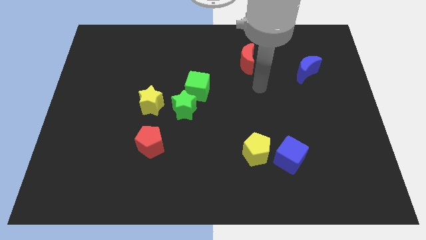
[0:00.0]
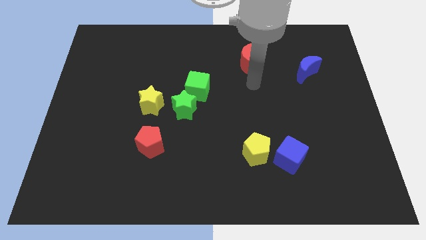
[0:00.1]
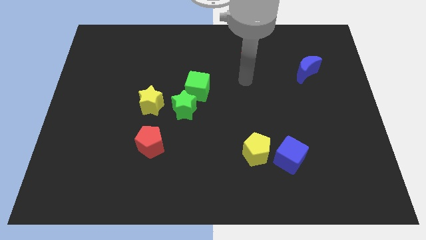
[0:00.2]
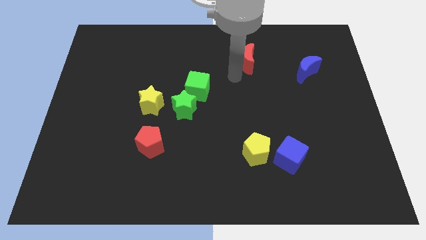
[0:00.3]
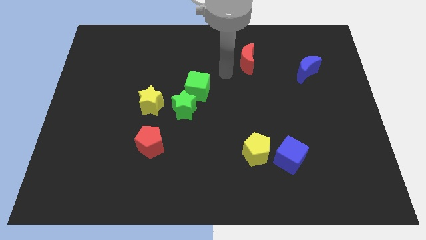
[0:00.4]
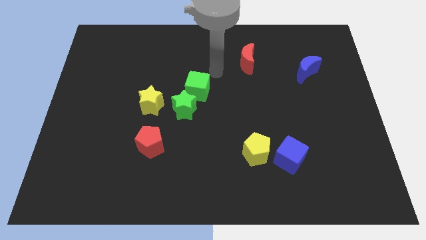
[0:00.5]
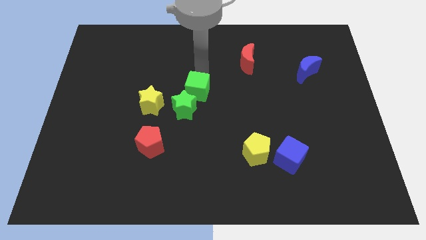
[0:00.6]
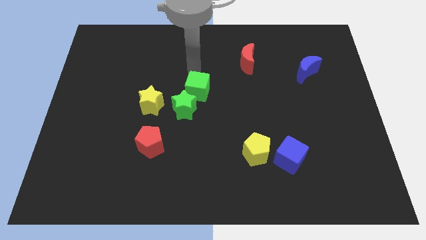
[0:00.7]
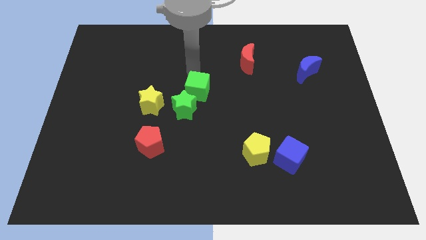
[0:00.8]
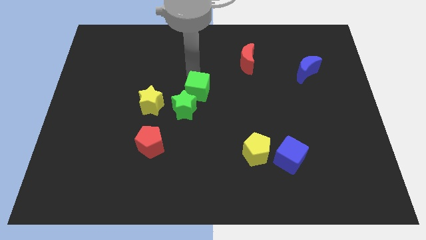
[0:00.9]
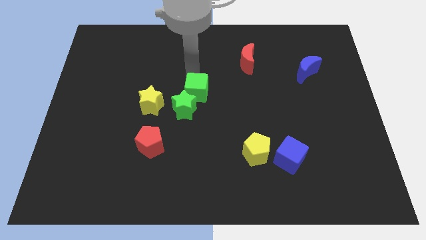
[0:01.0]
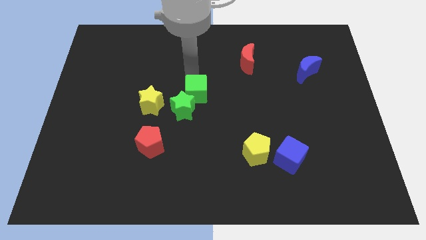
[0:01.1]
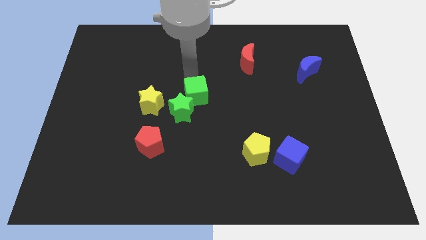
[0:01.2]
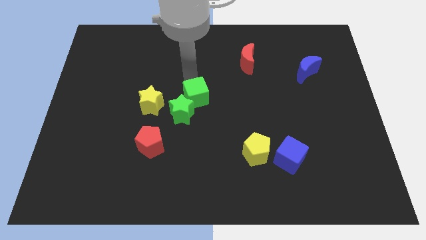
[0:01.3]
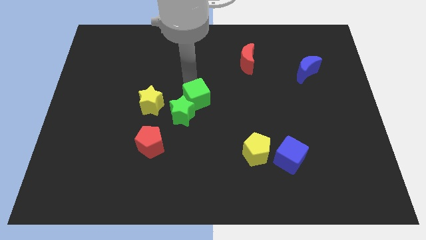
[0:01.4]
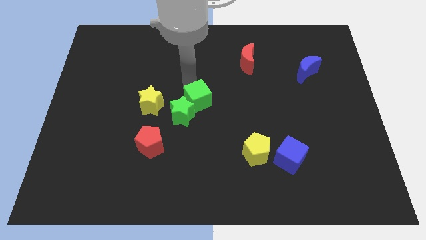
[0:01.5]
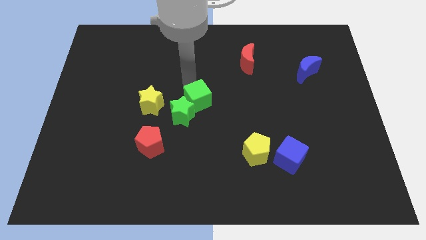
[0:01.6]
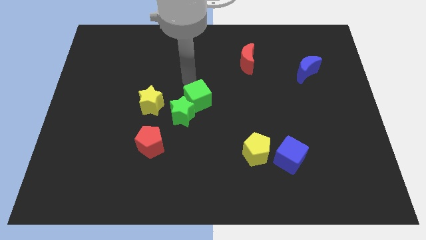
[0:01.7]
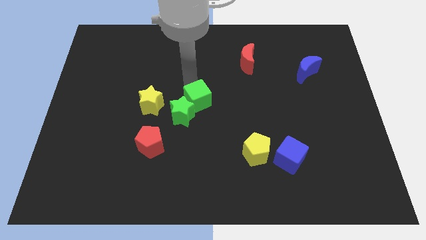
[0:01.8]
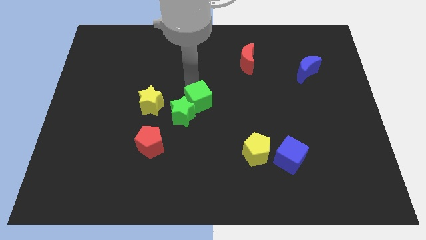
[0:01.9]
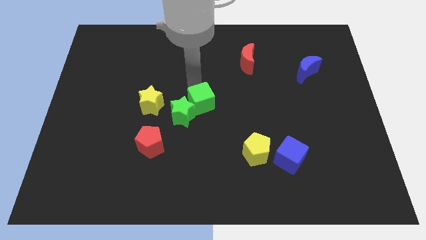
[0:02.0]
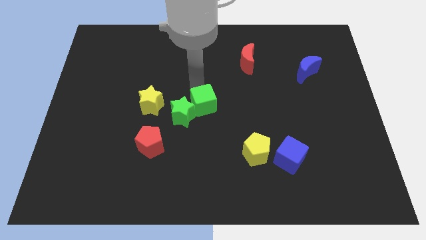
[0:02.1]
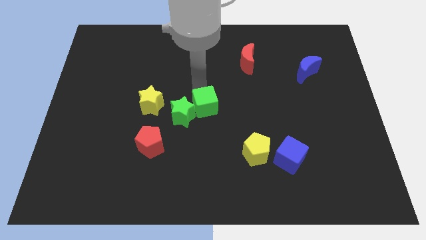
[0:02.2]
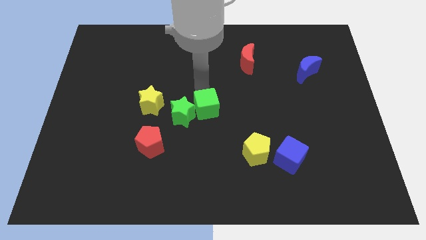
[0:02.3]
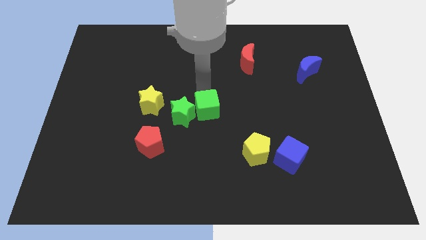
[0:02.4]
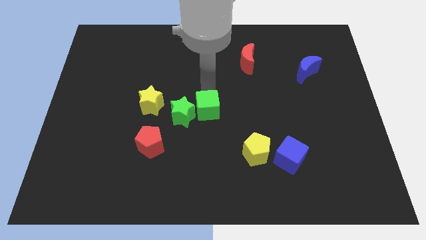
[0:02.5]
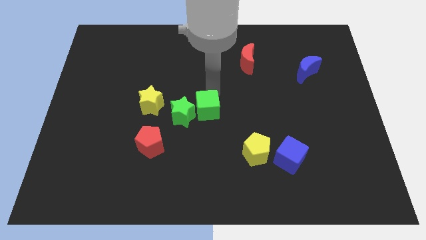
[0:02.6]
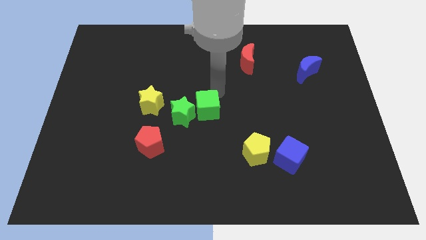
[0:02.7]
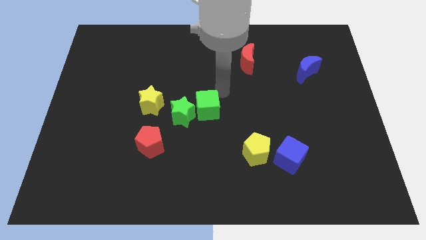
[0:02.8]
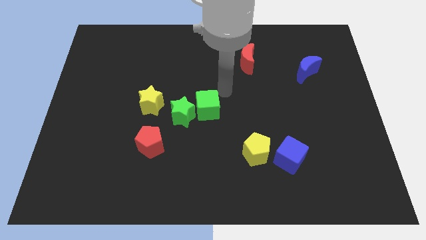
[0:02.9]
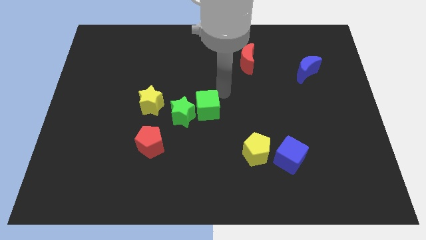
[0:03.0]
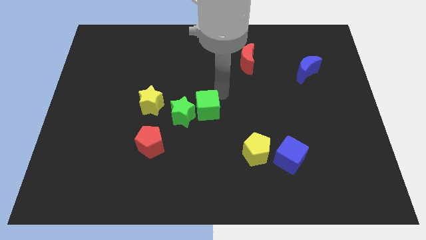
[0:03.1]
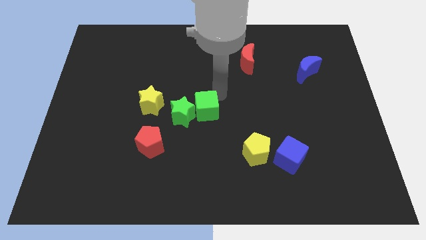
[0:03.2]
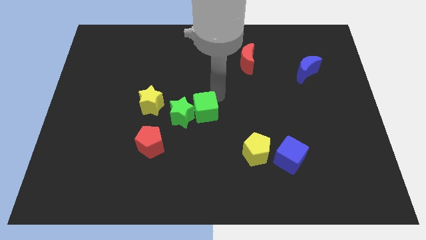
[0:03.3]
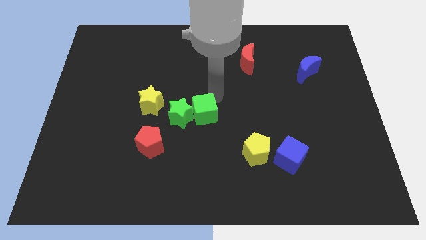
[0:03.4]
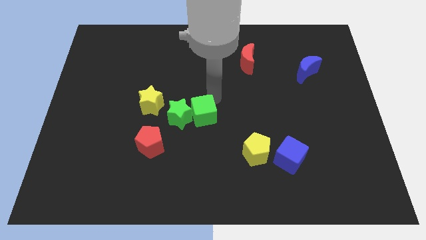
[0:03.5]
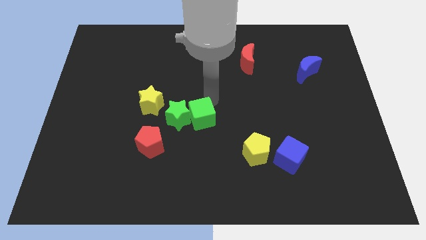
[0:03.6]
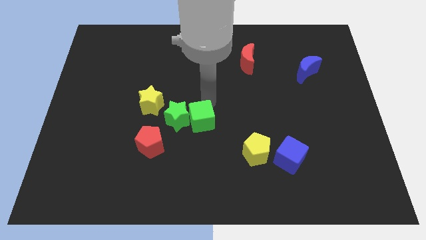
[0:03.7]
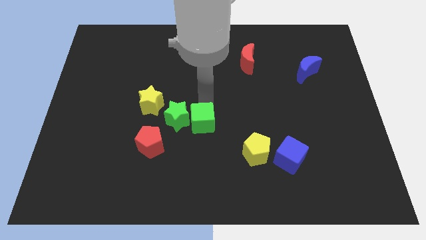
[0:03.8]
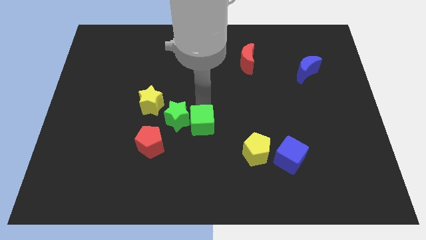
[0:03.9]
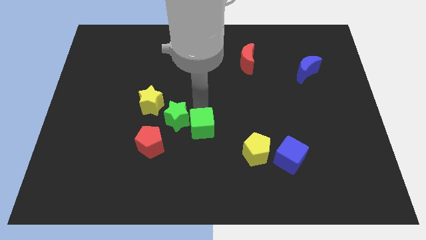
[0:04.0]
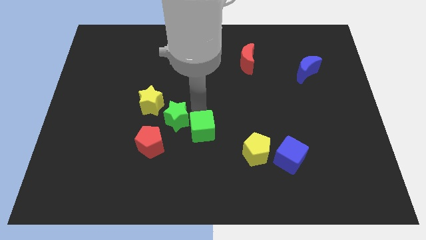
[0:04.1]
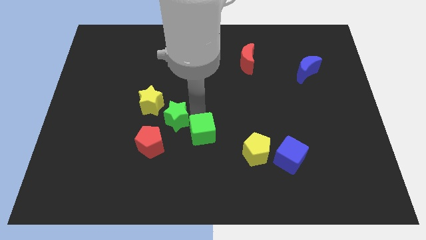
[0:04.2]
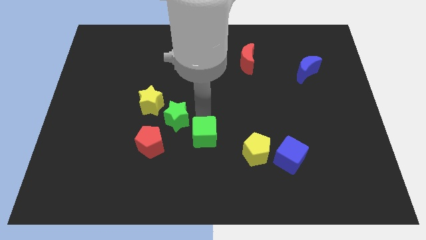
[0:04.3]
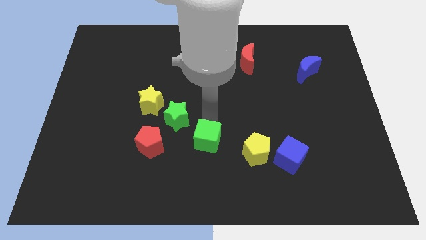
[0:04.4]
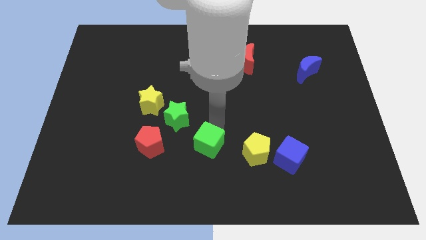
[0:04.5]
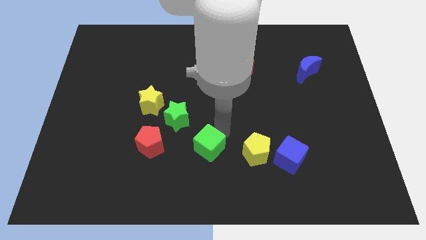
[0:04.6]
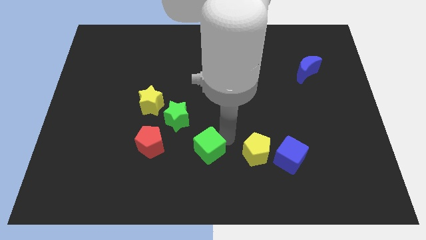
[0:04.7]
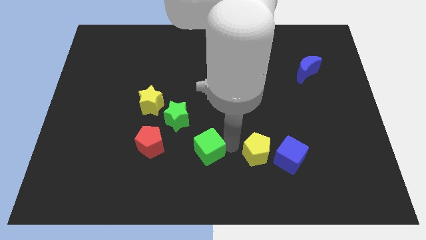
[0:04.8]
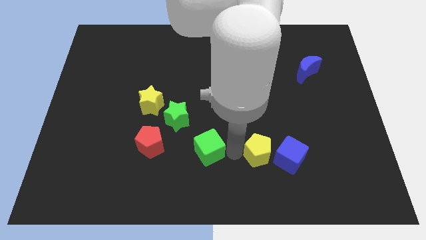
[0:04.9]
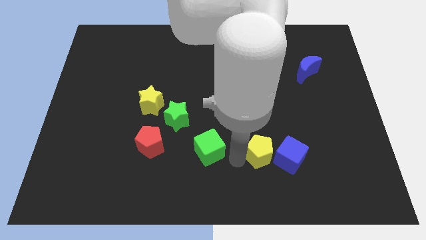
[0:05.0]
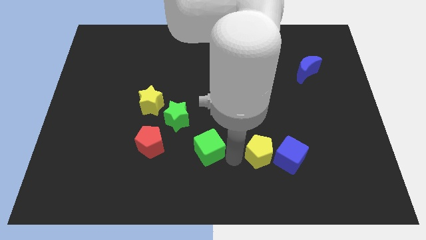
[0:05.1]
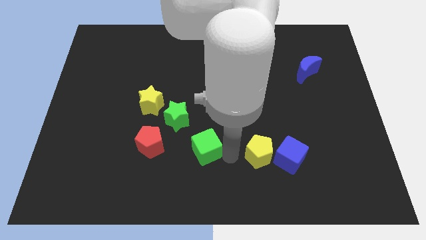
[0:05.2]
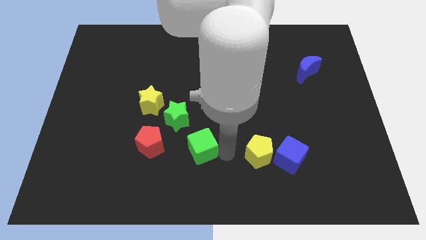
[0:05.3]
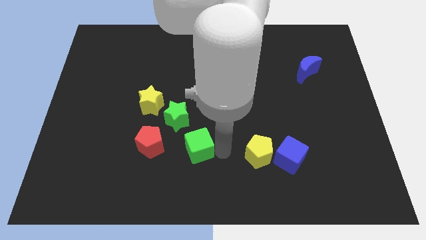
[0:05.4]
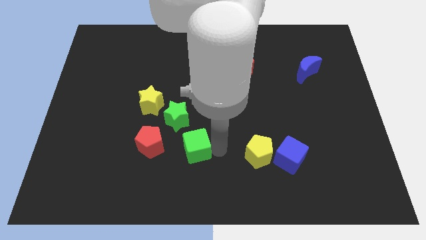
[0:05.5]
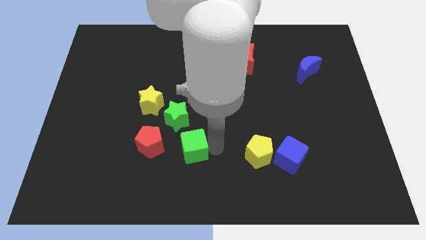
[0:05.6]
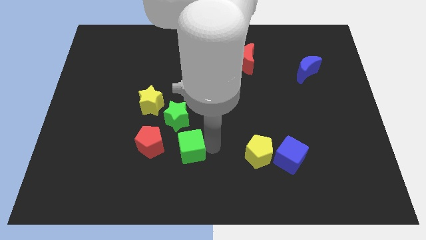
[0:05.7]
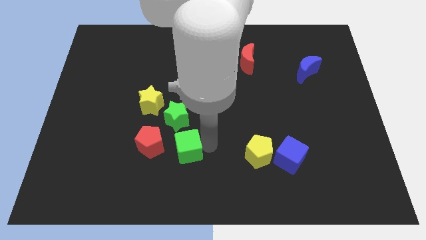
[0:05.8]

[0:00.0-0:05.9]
slightly push the green cube downwards and left

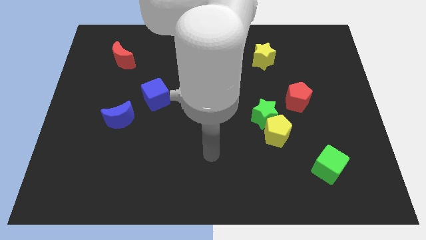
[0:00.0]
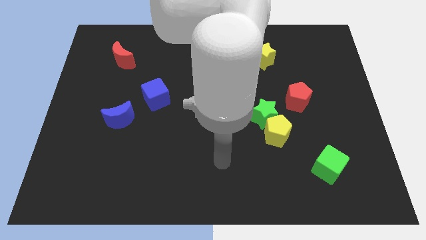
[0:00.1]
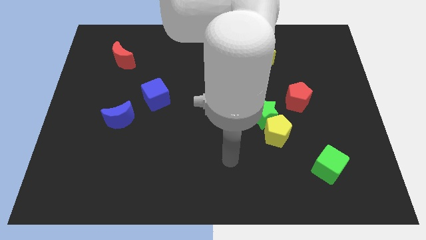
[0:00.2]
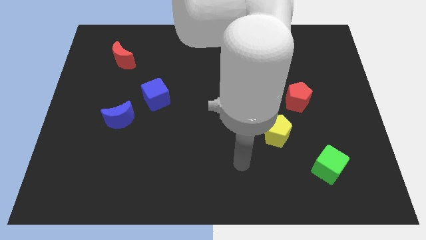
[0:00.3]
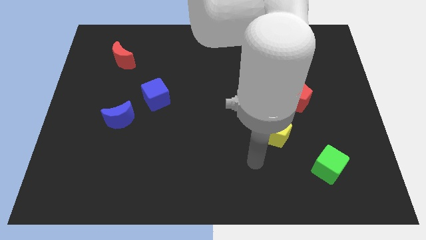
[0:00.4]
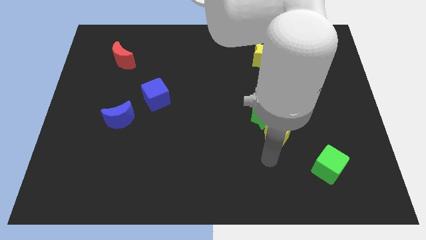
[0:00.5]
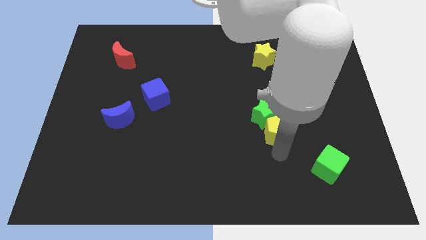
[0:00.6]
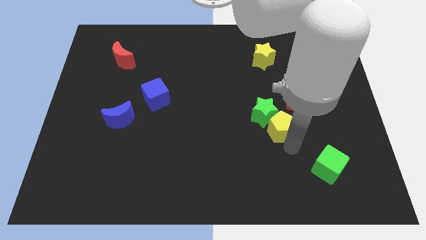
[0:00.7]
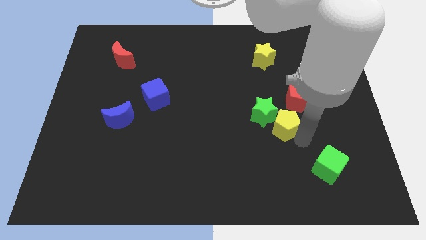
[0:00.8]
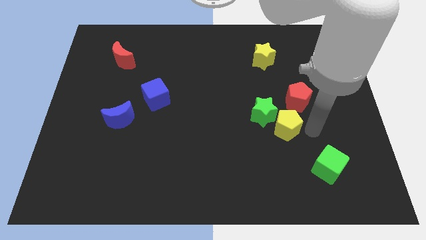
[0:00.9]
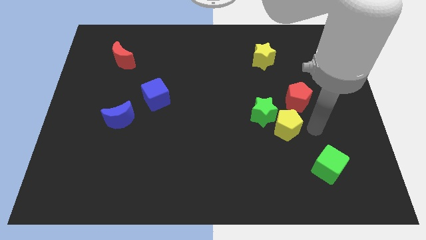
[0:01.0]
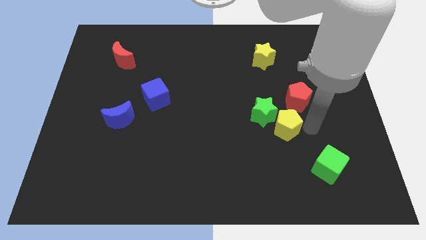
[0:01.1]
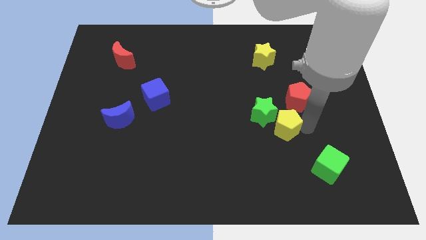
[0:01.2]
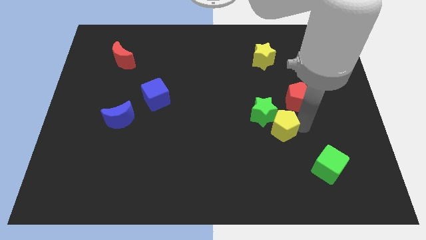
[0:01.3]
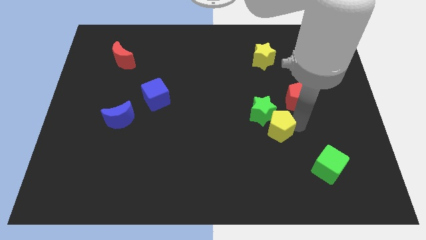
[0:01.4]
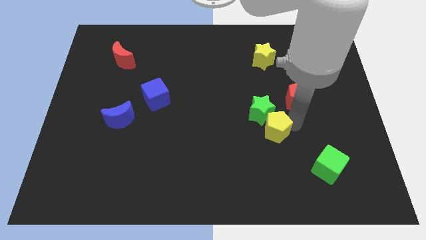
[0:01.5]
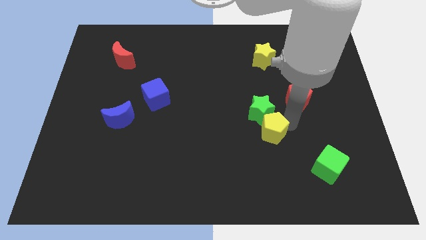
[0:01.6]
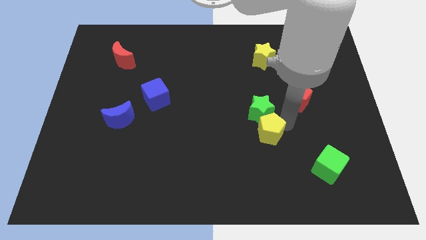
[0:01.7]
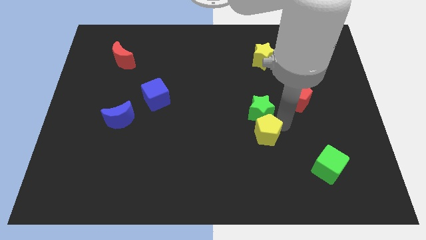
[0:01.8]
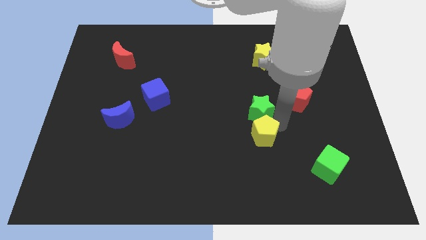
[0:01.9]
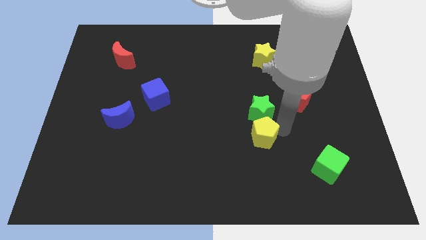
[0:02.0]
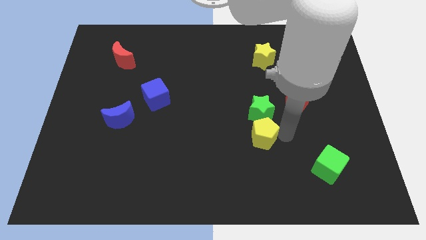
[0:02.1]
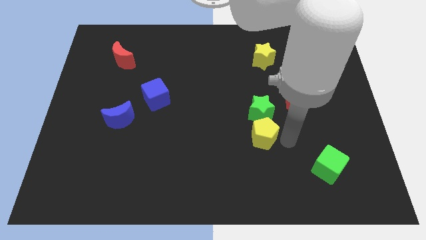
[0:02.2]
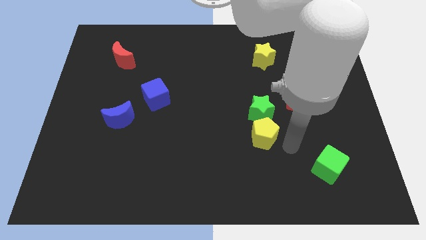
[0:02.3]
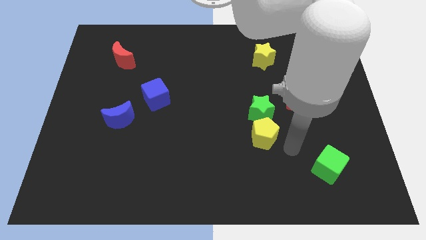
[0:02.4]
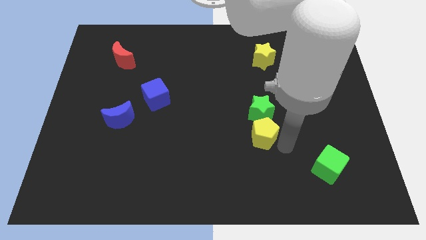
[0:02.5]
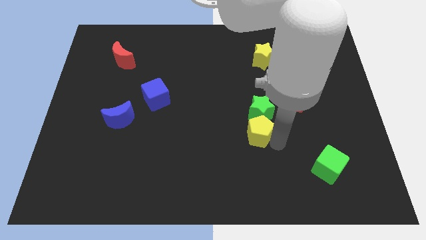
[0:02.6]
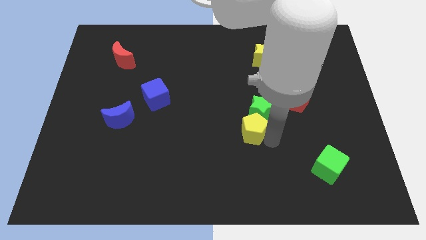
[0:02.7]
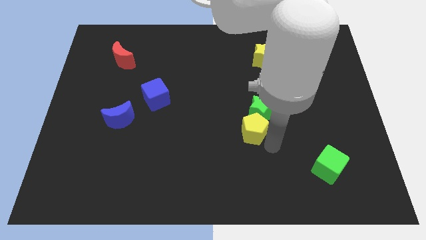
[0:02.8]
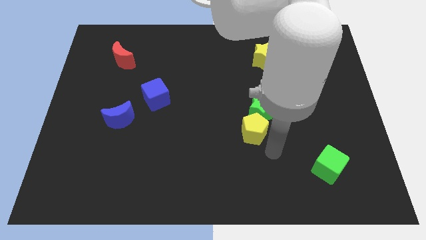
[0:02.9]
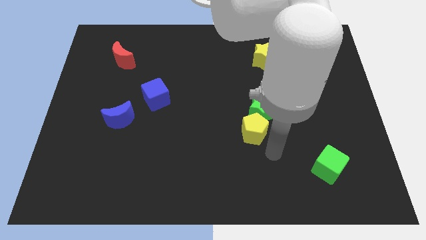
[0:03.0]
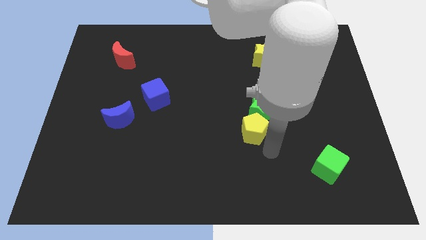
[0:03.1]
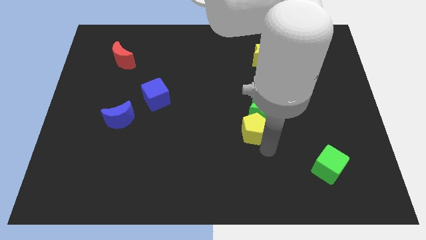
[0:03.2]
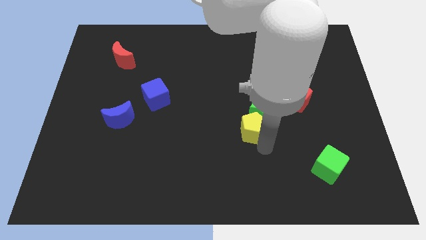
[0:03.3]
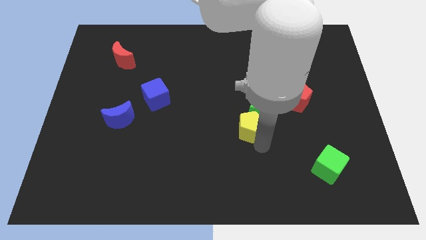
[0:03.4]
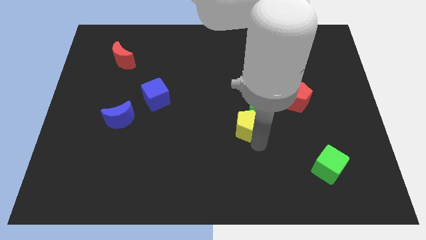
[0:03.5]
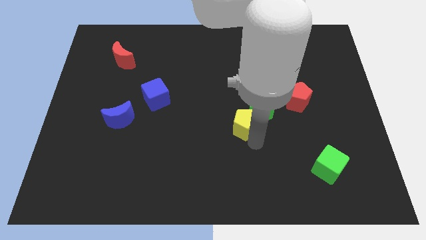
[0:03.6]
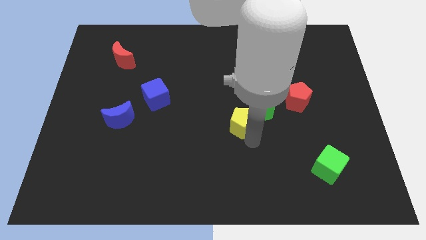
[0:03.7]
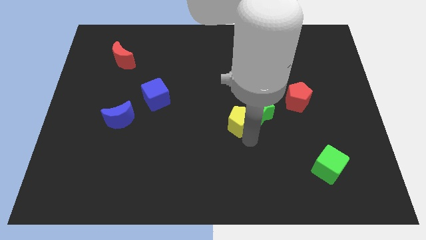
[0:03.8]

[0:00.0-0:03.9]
move the yellow pentagon up and then left a bit
